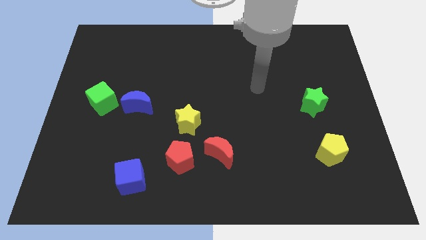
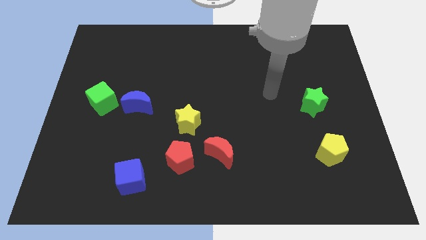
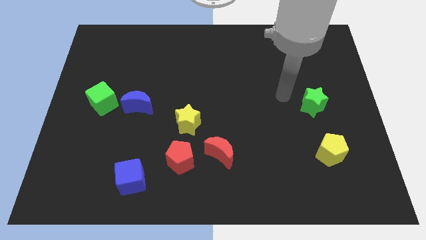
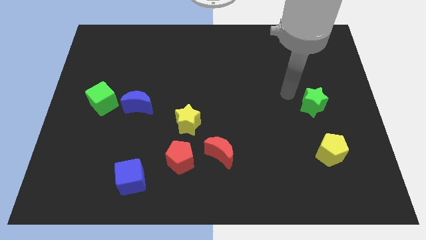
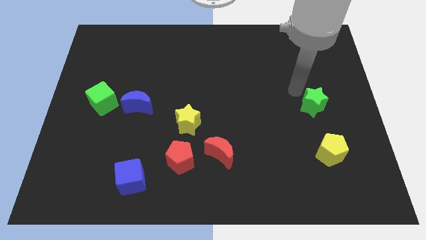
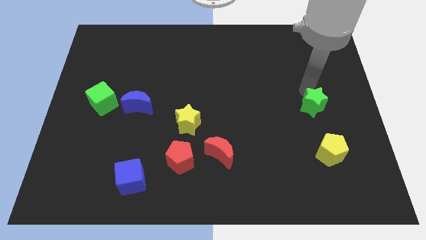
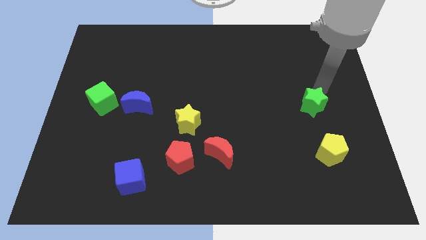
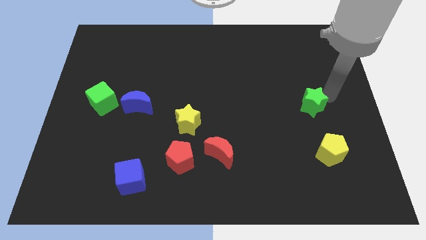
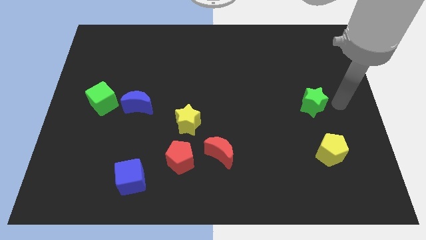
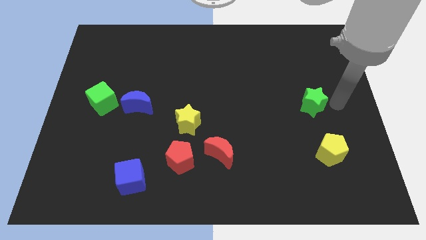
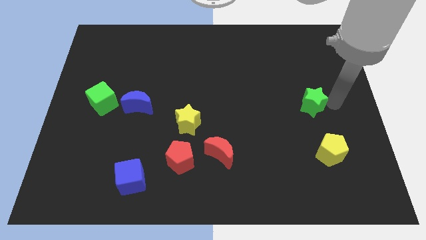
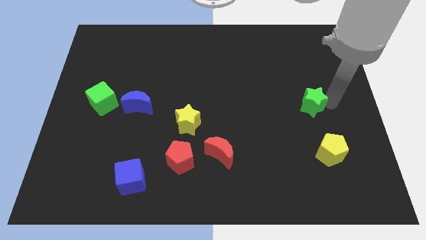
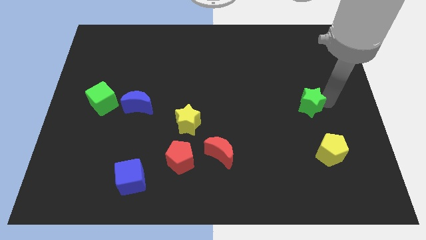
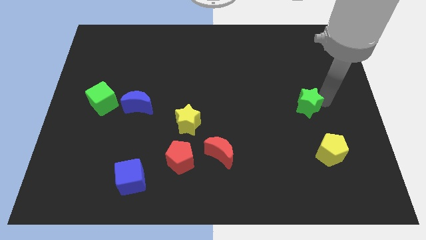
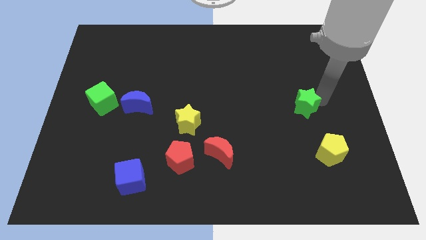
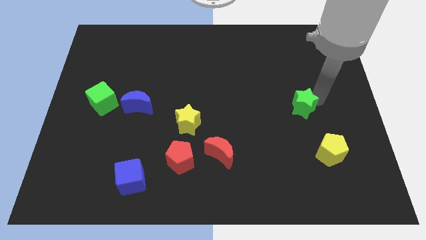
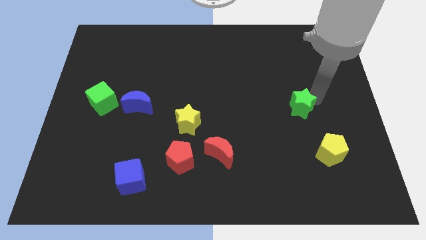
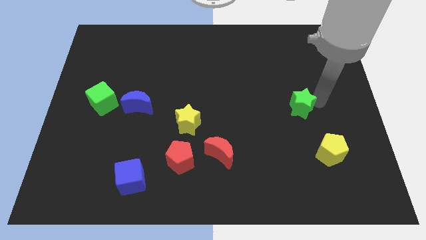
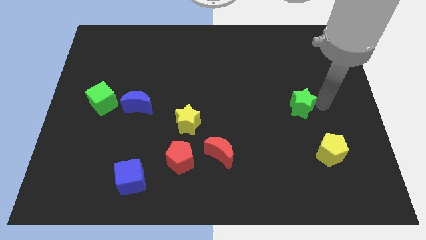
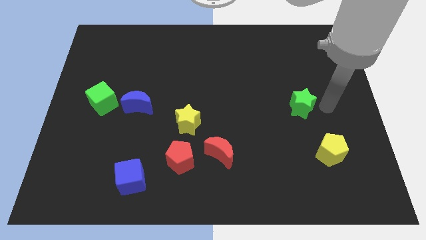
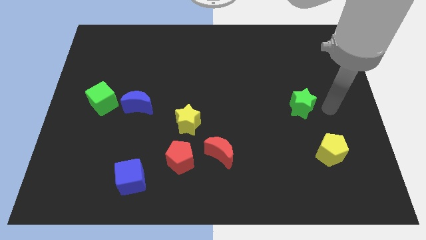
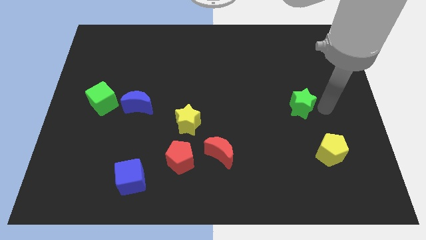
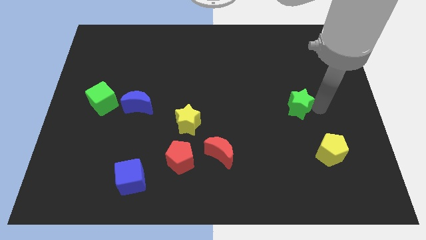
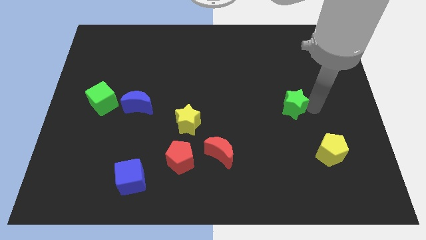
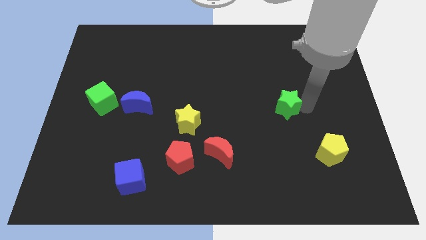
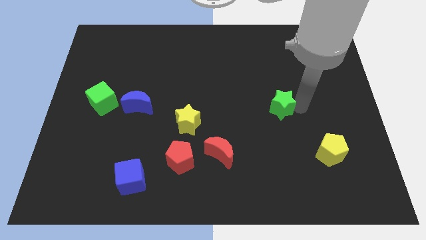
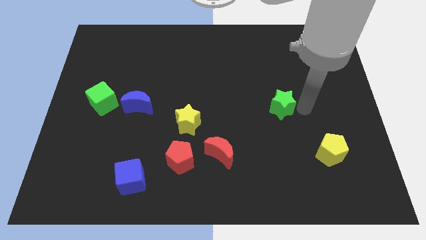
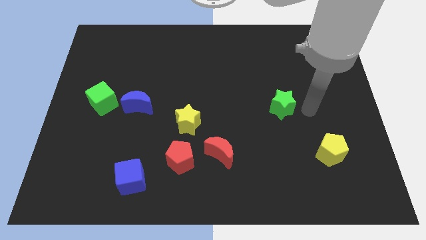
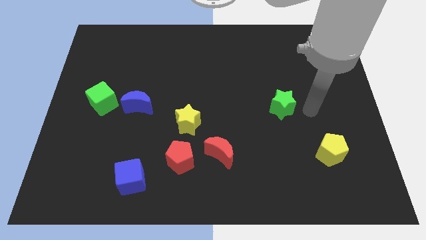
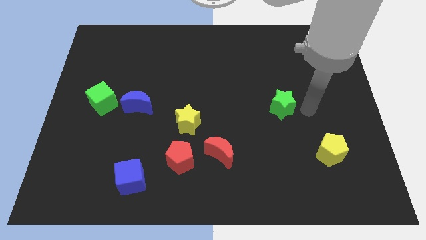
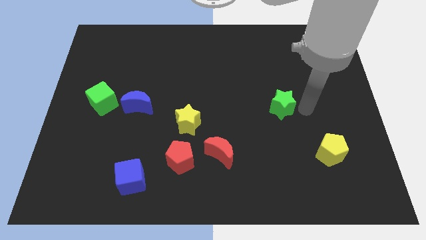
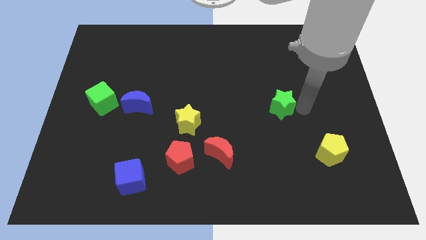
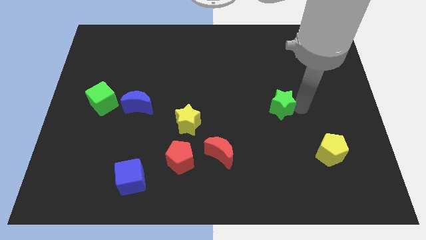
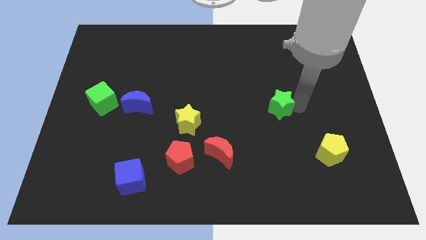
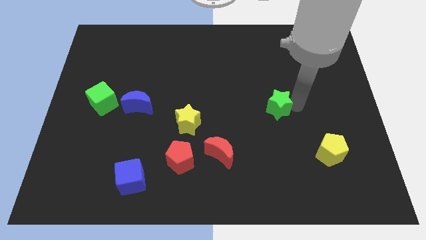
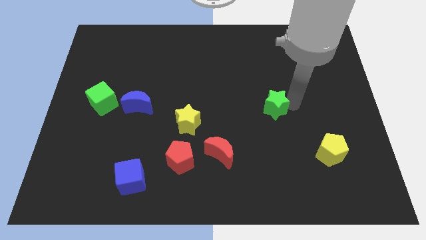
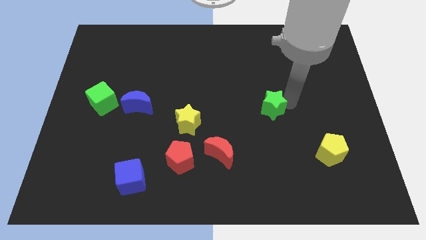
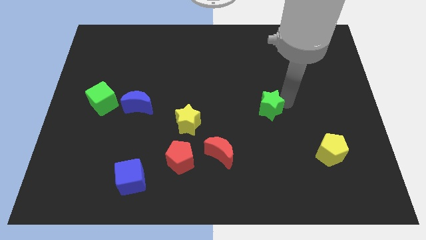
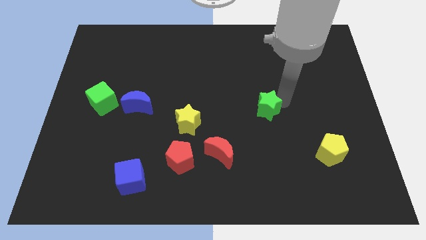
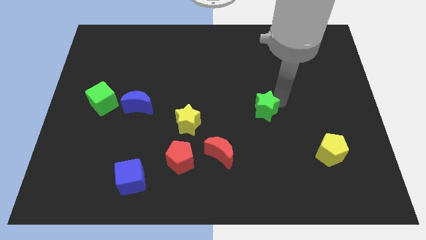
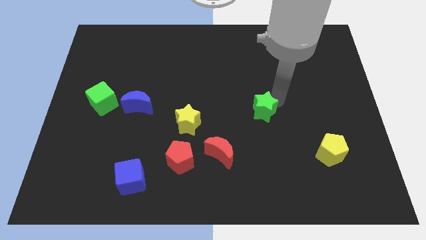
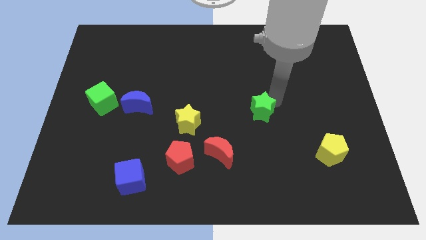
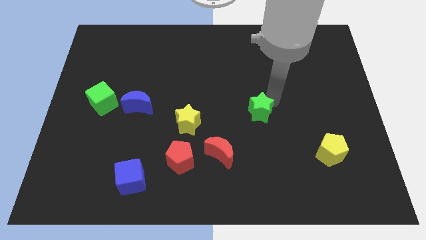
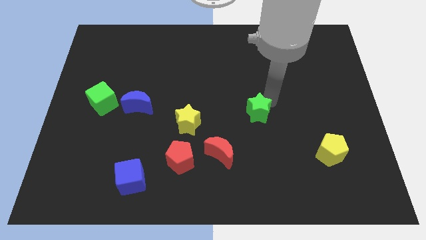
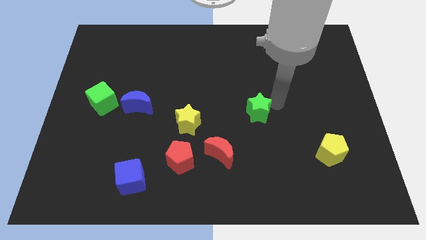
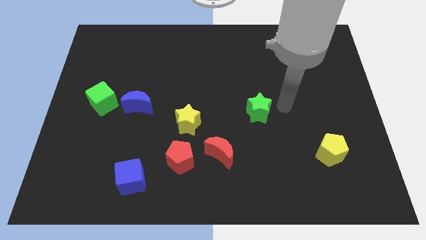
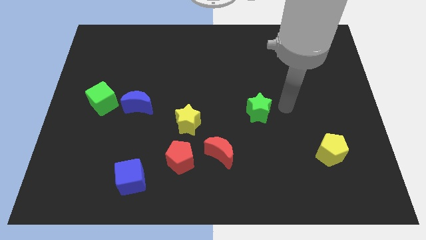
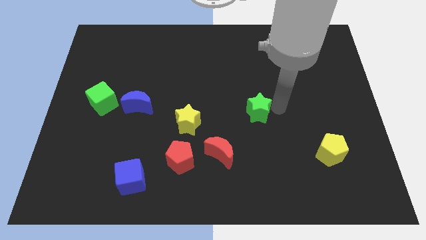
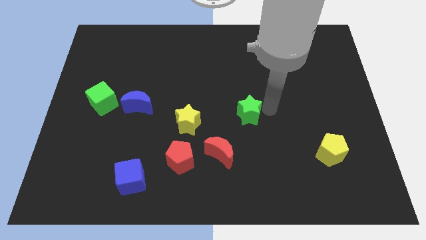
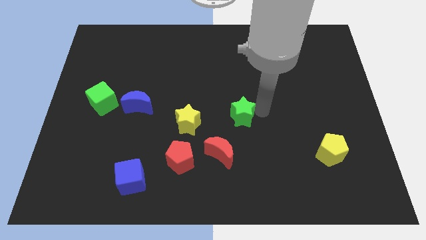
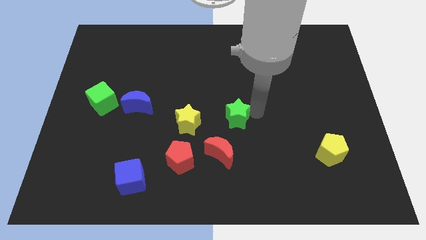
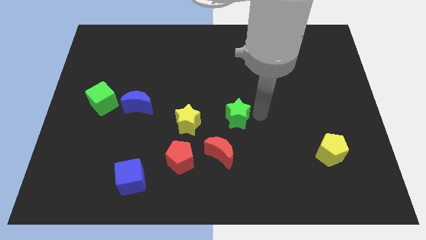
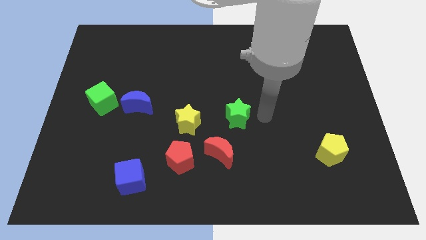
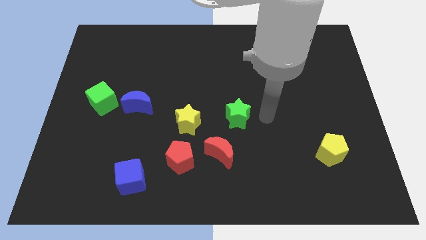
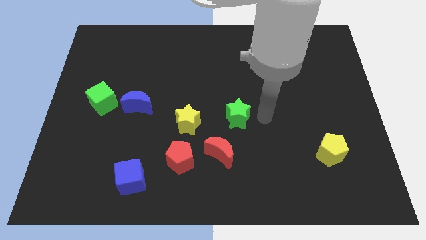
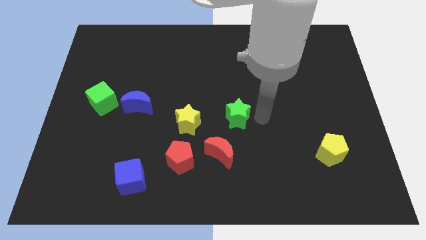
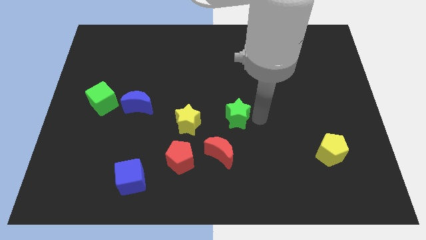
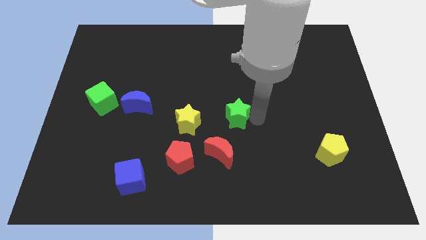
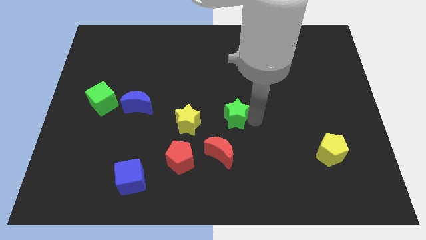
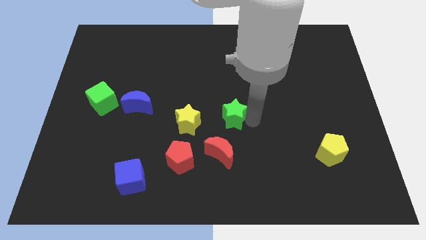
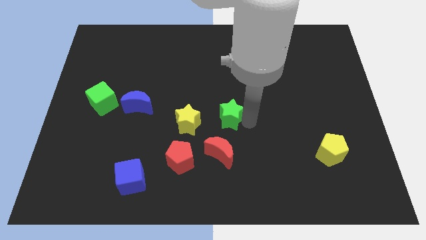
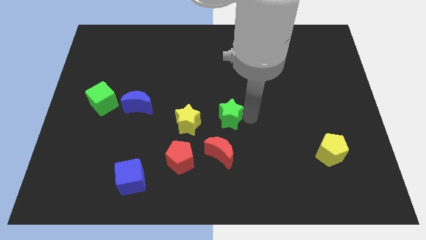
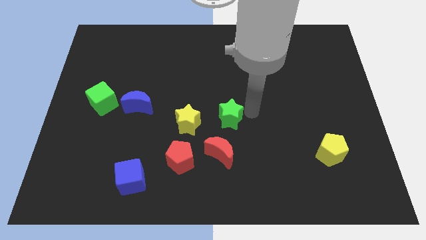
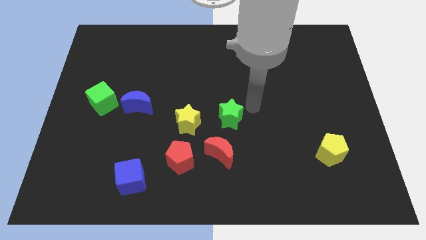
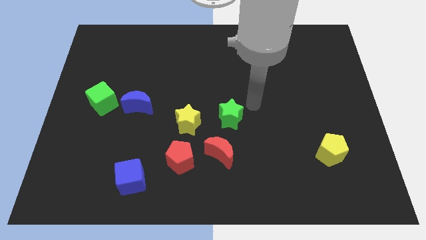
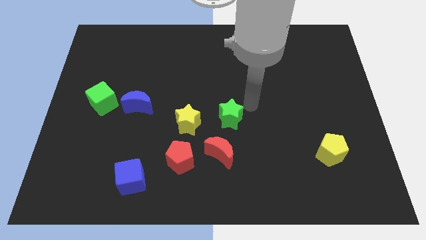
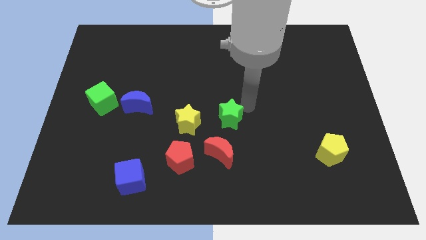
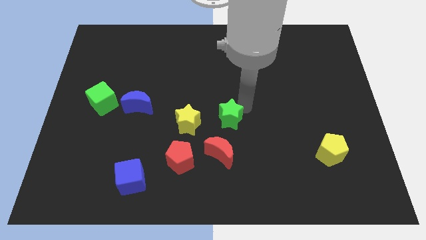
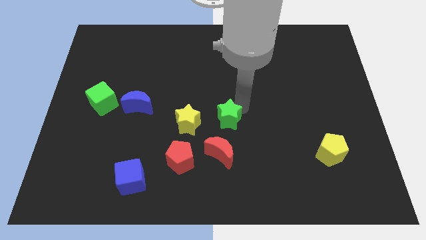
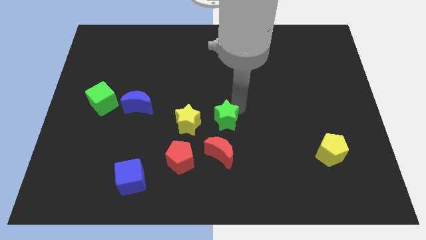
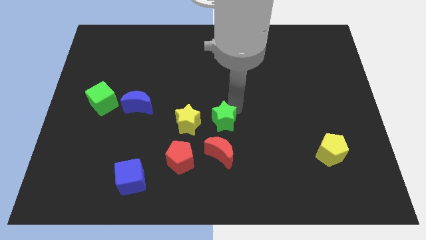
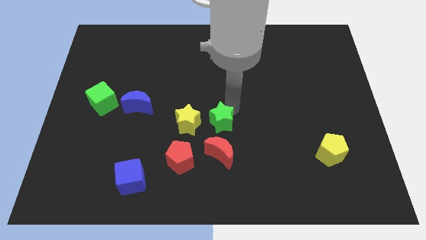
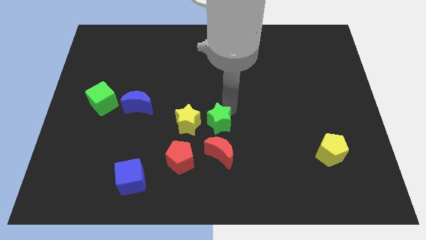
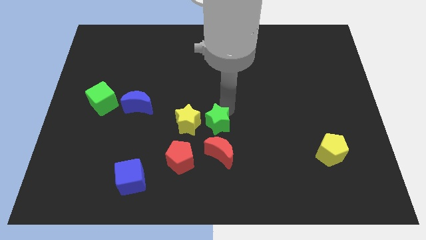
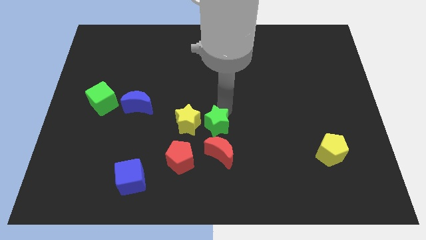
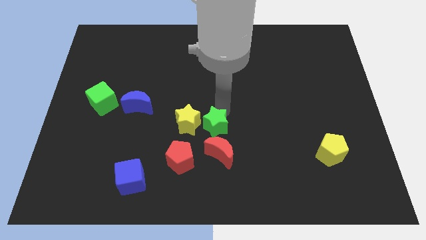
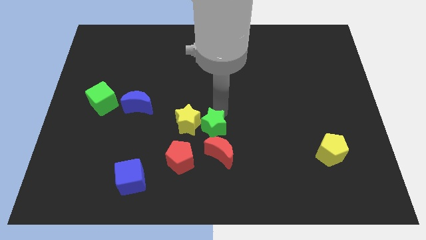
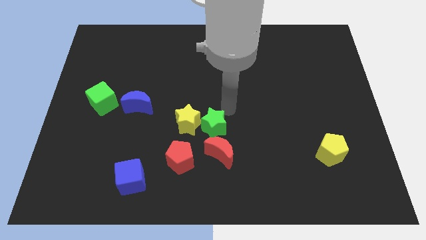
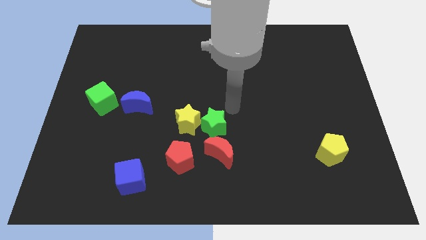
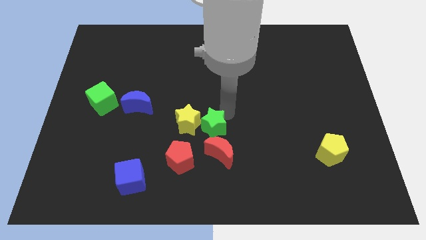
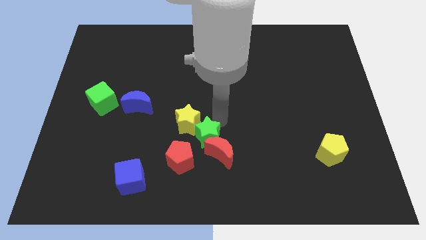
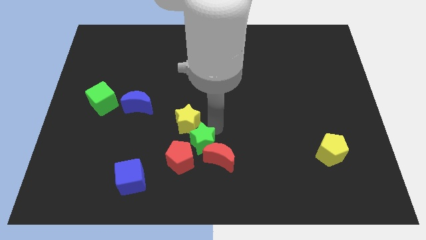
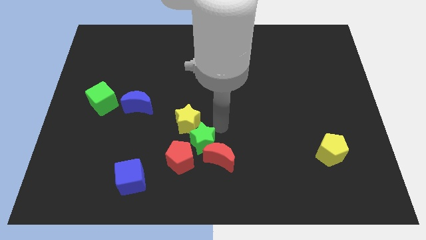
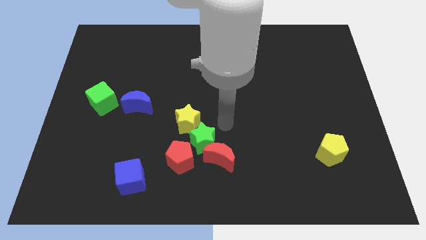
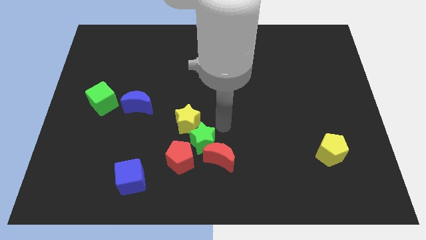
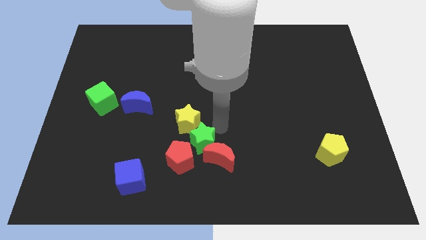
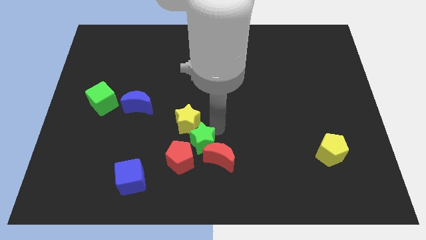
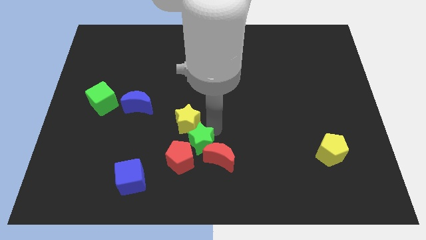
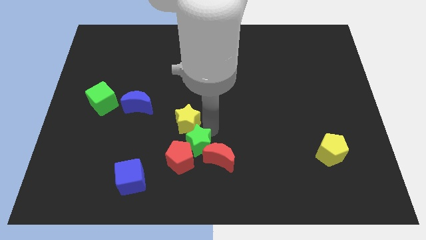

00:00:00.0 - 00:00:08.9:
push the green star close to the red pentagon
